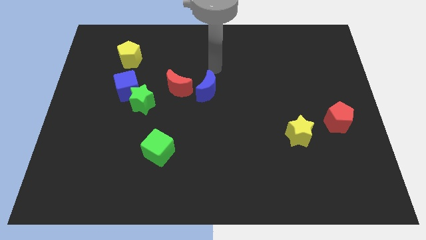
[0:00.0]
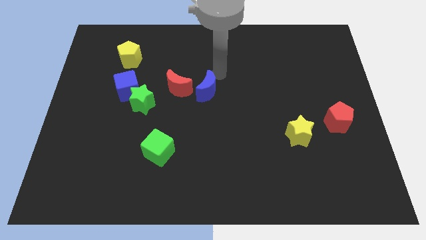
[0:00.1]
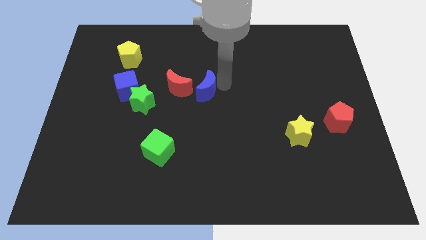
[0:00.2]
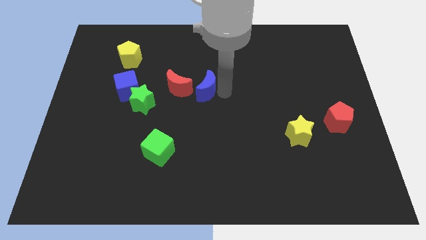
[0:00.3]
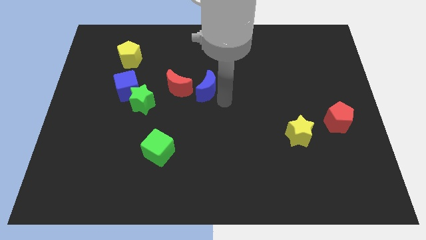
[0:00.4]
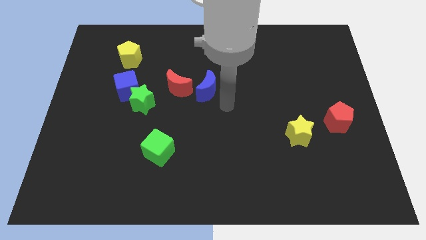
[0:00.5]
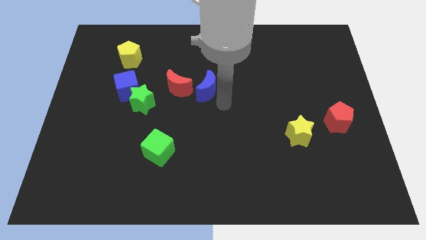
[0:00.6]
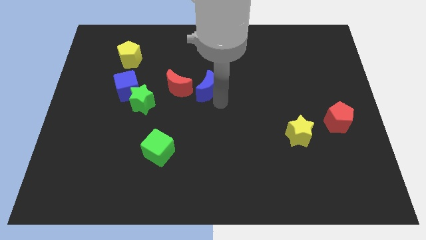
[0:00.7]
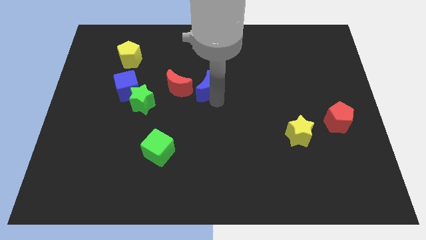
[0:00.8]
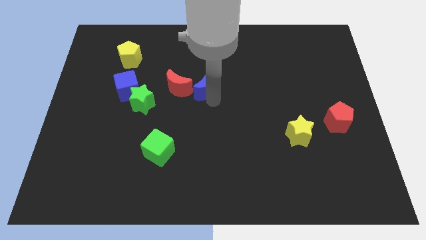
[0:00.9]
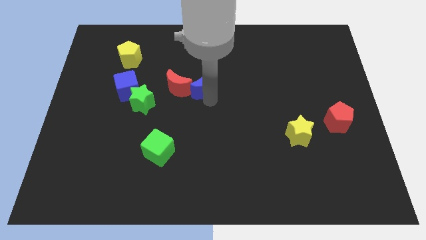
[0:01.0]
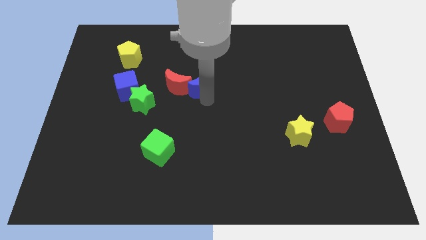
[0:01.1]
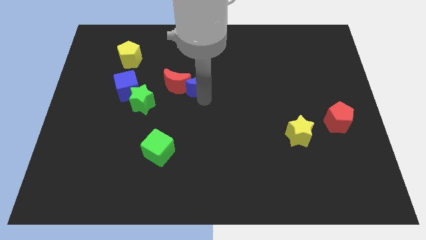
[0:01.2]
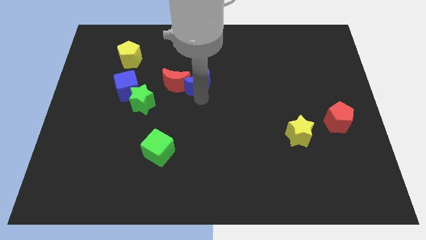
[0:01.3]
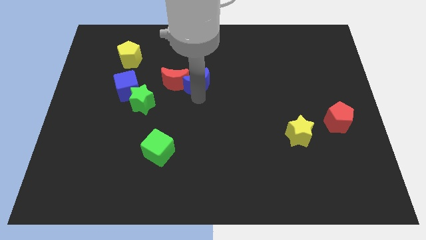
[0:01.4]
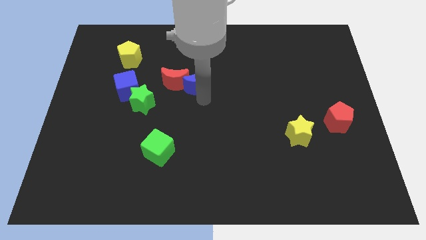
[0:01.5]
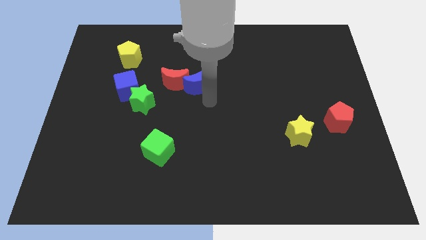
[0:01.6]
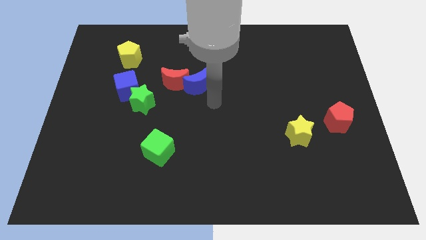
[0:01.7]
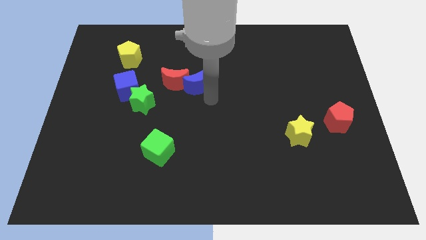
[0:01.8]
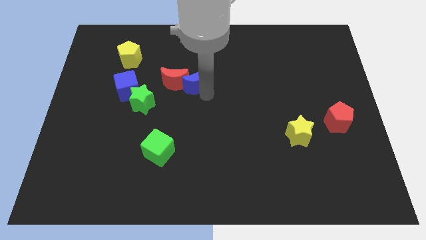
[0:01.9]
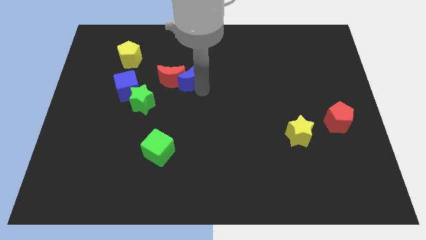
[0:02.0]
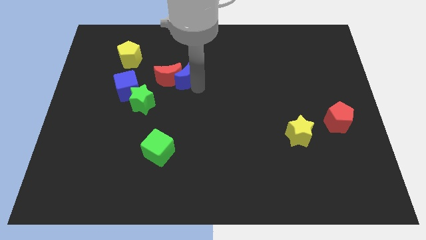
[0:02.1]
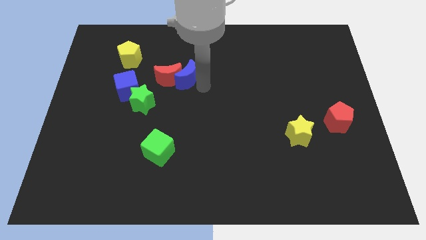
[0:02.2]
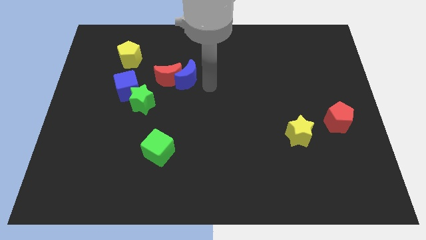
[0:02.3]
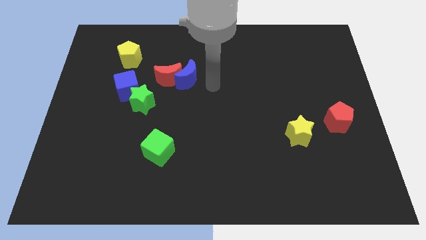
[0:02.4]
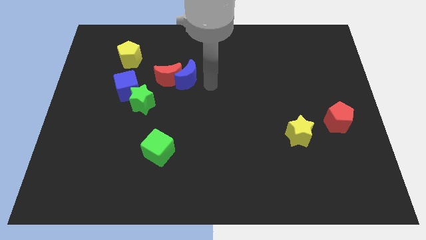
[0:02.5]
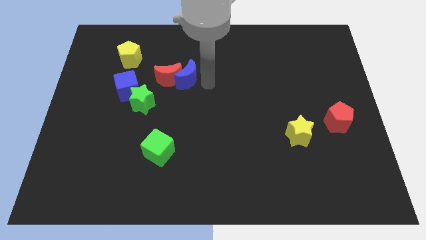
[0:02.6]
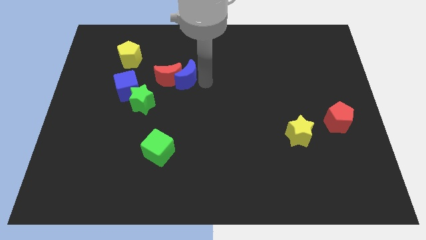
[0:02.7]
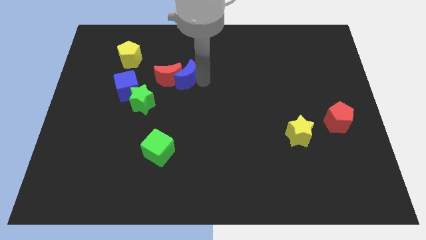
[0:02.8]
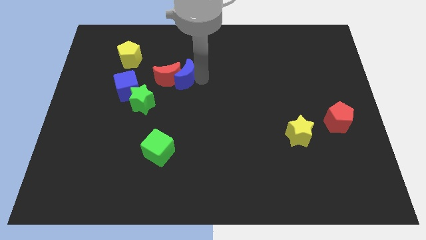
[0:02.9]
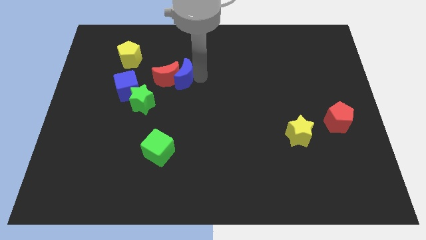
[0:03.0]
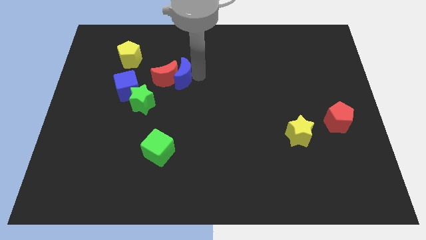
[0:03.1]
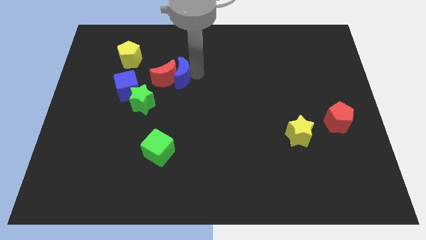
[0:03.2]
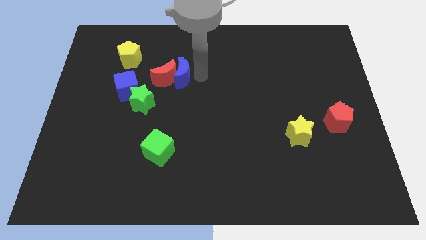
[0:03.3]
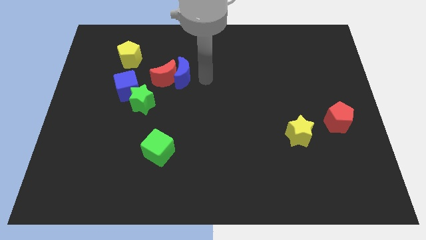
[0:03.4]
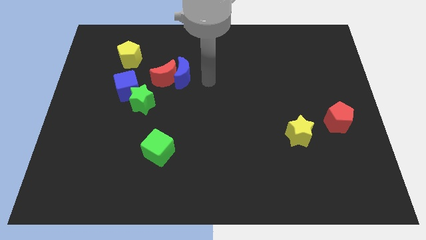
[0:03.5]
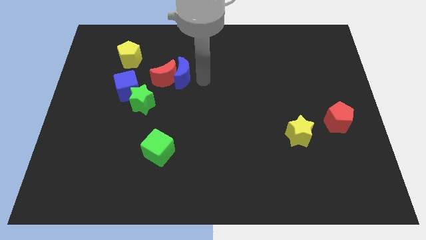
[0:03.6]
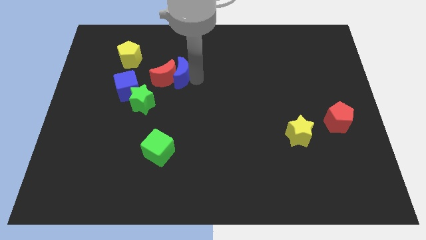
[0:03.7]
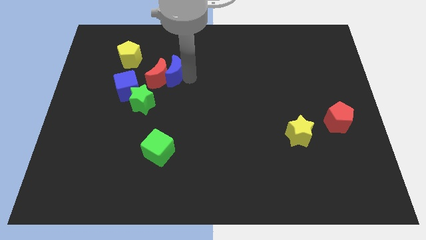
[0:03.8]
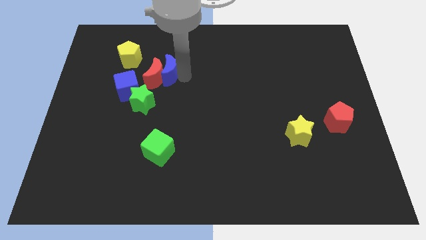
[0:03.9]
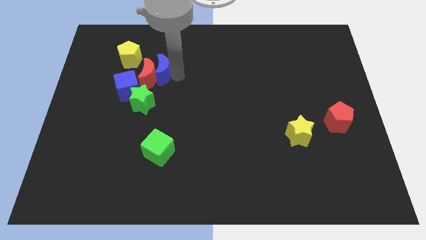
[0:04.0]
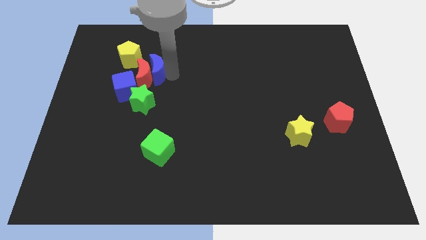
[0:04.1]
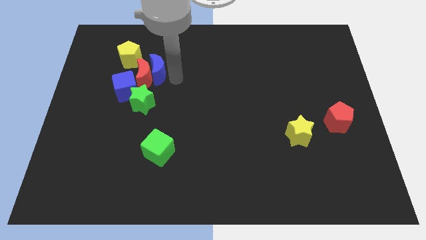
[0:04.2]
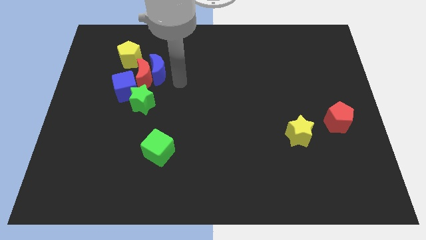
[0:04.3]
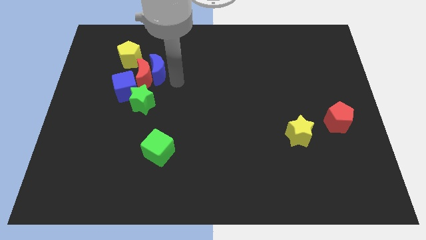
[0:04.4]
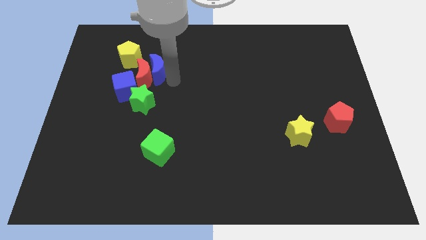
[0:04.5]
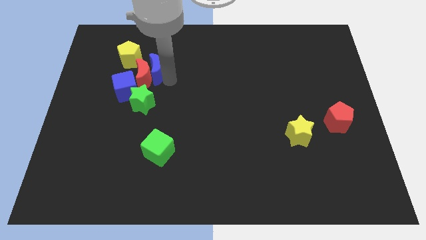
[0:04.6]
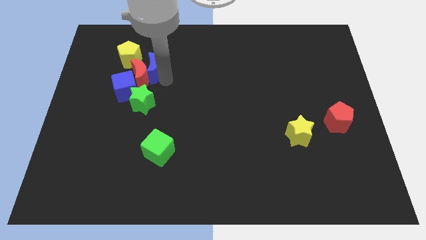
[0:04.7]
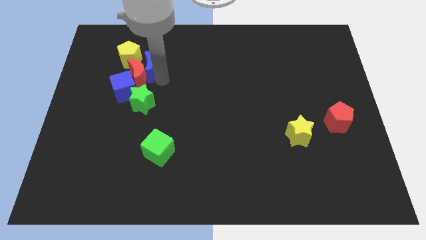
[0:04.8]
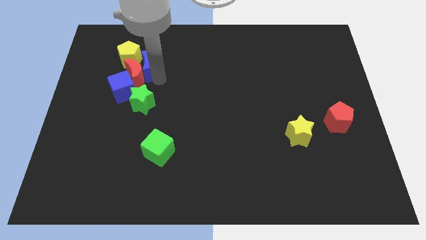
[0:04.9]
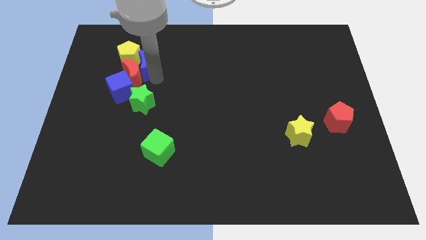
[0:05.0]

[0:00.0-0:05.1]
put the blue moon to the yellow pentagon

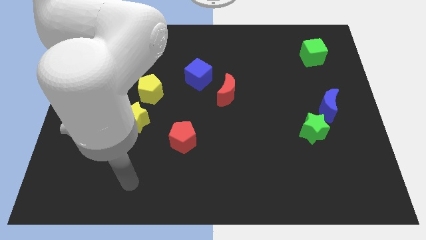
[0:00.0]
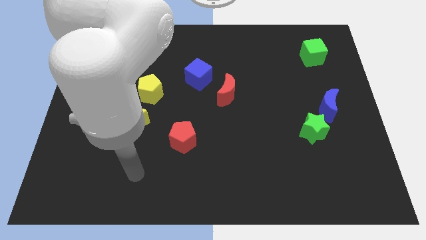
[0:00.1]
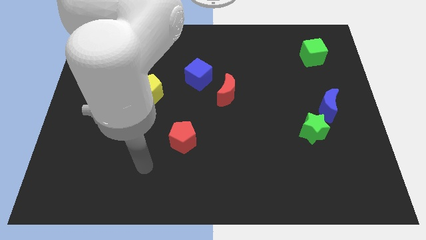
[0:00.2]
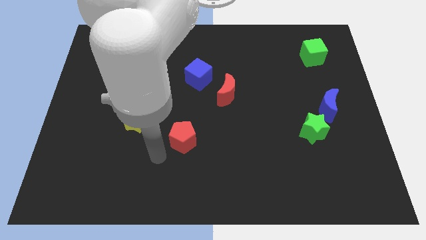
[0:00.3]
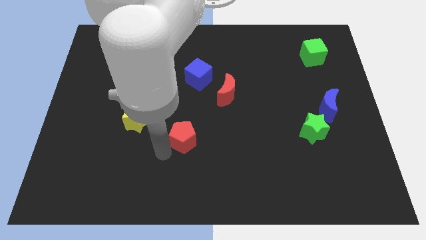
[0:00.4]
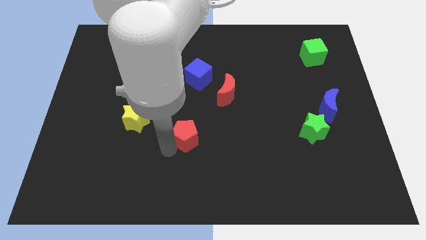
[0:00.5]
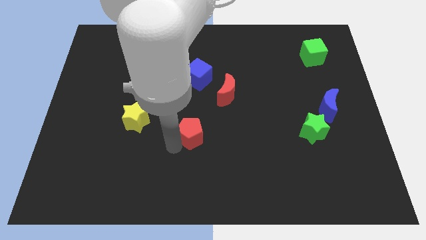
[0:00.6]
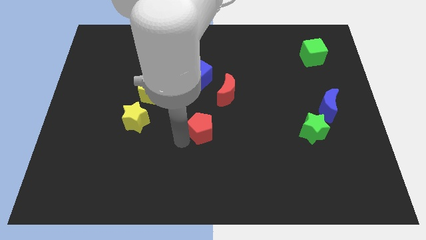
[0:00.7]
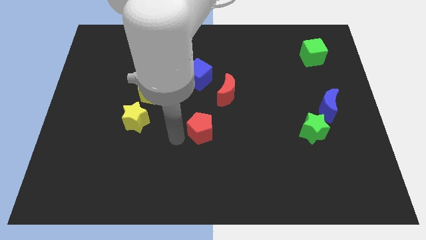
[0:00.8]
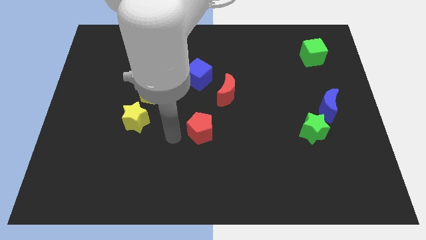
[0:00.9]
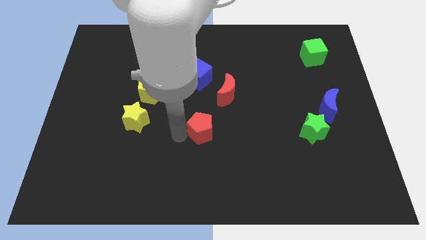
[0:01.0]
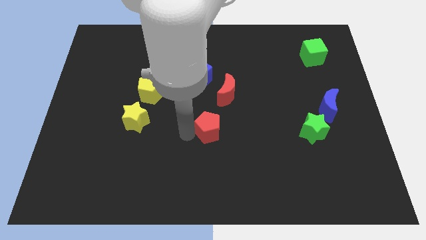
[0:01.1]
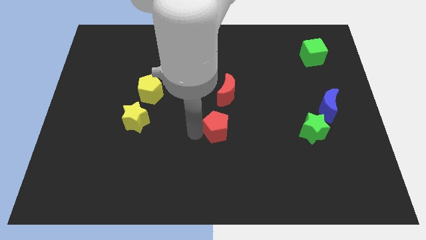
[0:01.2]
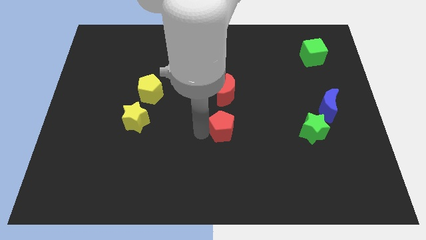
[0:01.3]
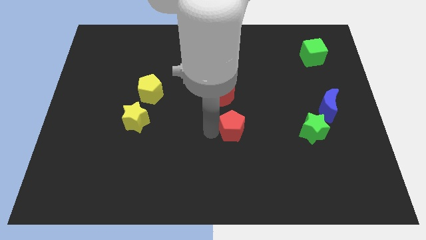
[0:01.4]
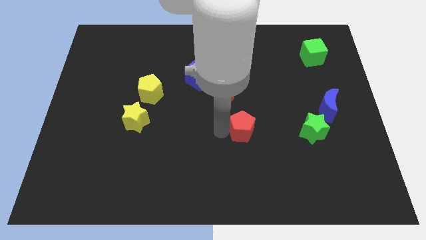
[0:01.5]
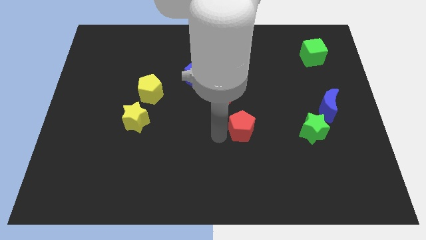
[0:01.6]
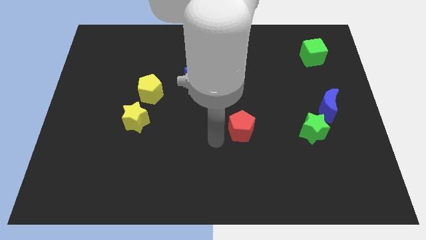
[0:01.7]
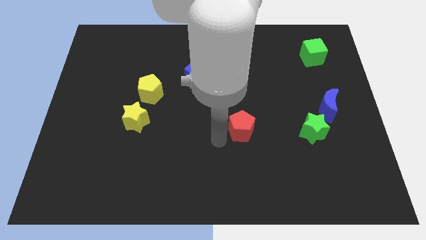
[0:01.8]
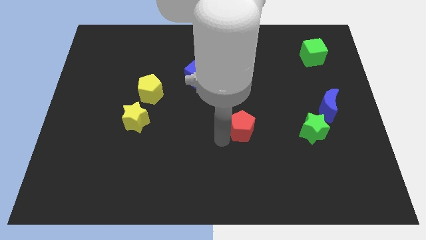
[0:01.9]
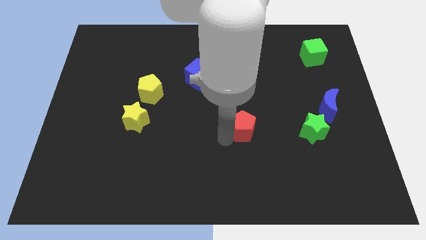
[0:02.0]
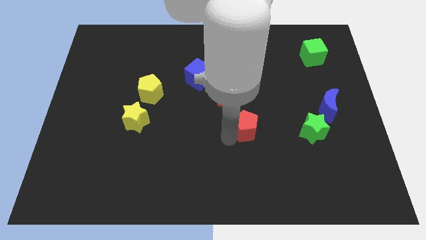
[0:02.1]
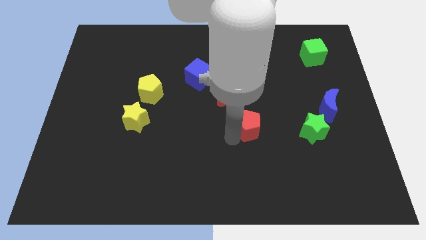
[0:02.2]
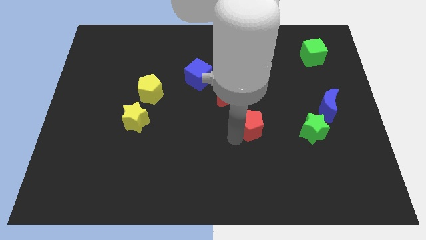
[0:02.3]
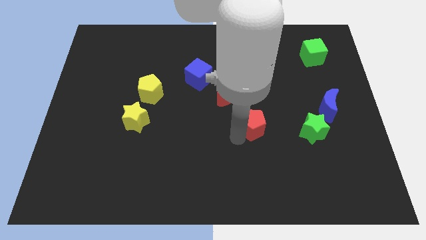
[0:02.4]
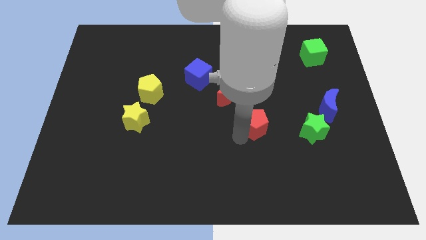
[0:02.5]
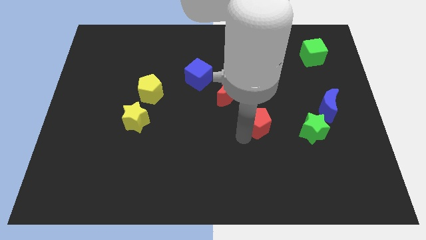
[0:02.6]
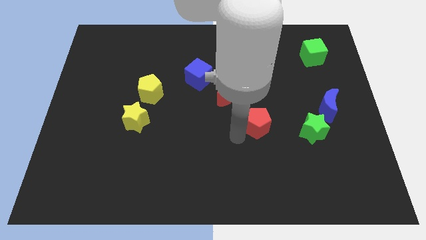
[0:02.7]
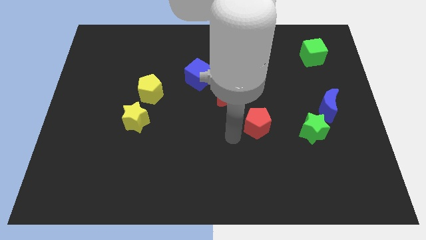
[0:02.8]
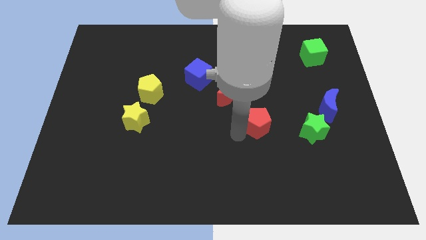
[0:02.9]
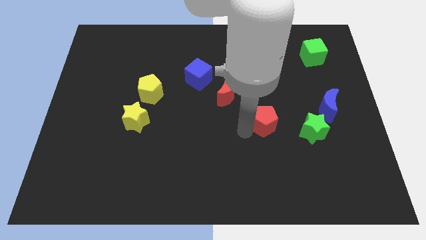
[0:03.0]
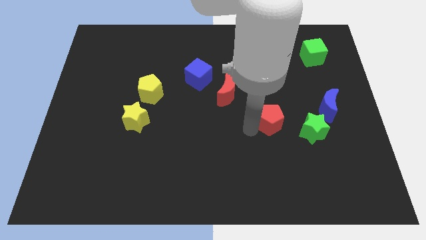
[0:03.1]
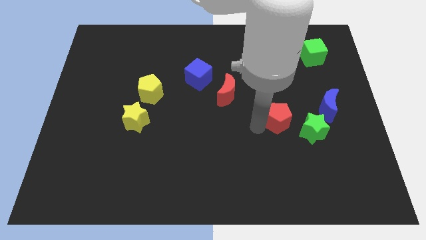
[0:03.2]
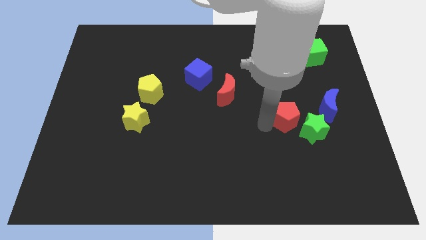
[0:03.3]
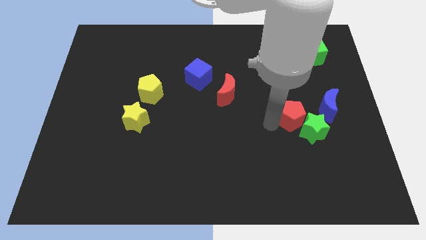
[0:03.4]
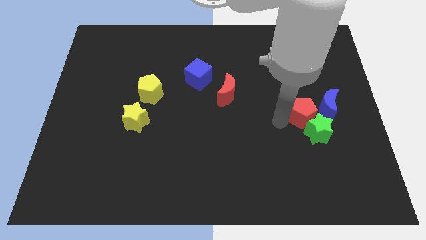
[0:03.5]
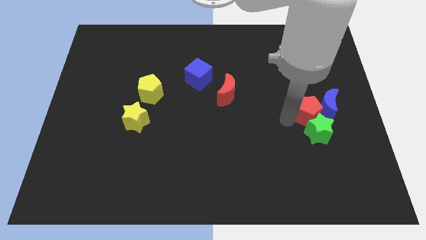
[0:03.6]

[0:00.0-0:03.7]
slide the red pentagon next to the blue moon
